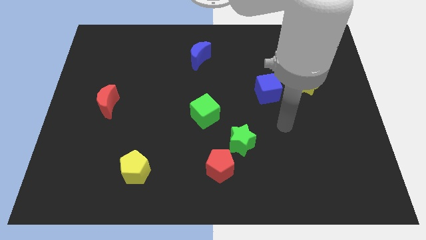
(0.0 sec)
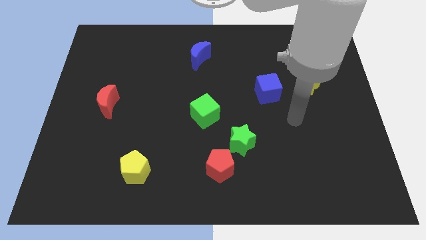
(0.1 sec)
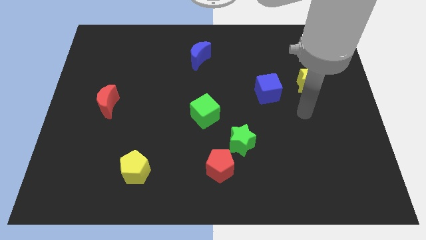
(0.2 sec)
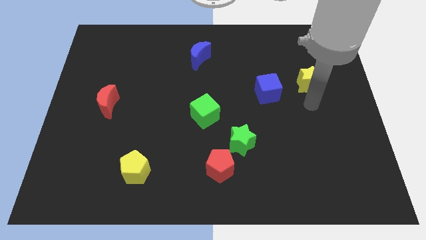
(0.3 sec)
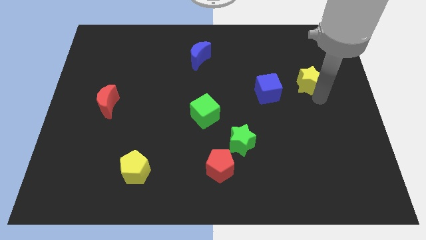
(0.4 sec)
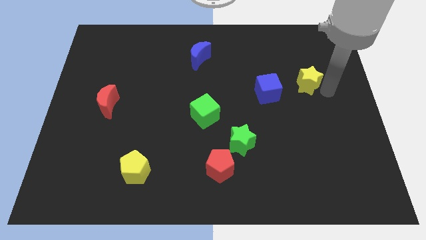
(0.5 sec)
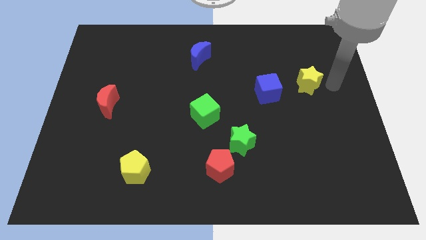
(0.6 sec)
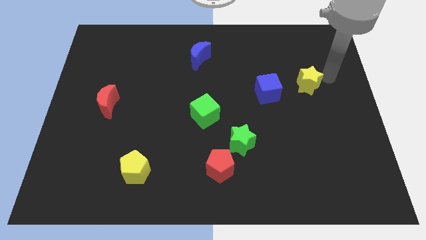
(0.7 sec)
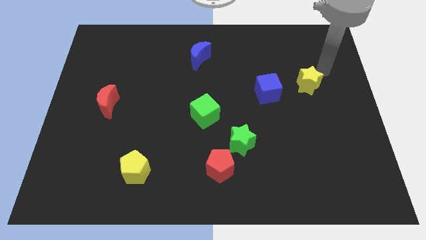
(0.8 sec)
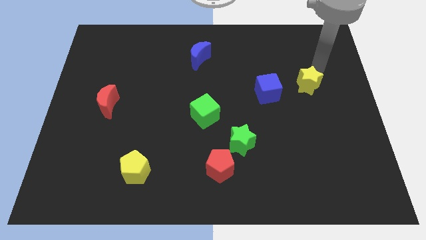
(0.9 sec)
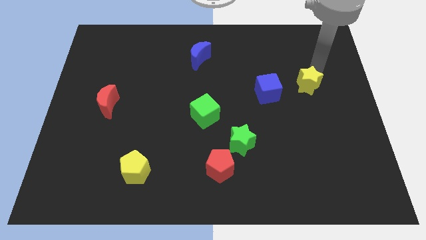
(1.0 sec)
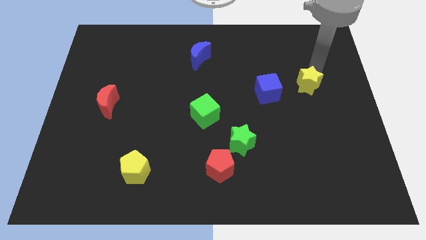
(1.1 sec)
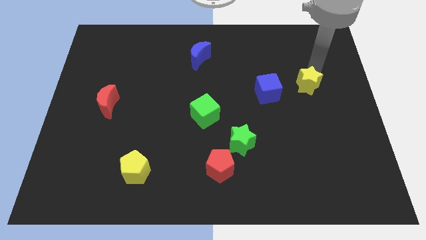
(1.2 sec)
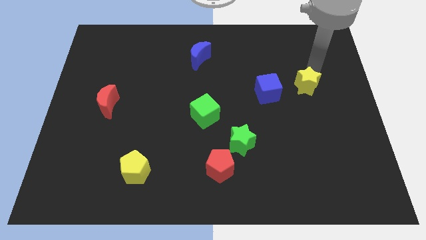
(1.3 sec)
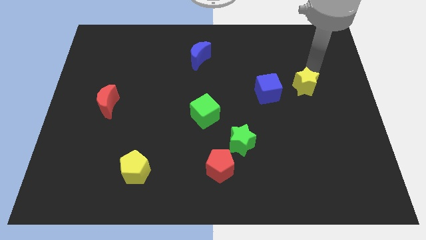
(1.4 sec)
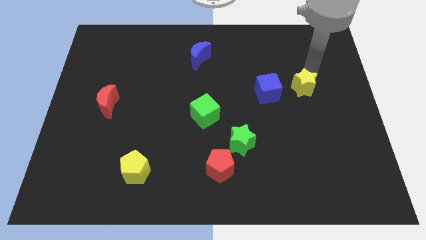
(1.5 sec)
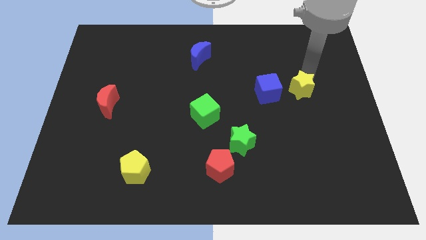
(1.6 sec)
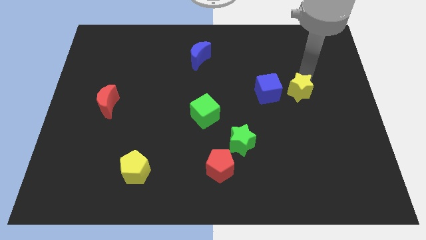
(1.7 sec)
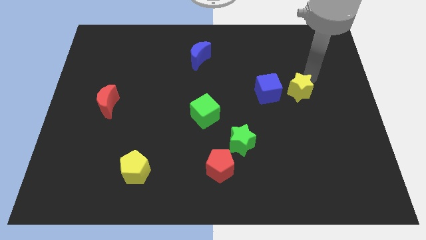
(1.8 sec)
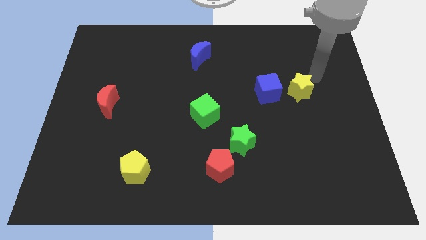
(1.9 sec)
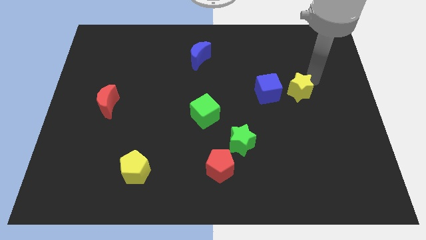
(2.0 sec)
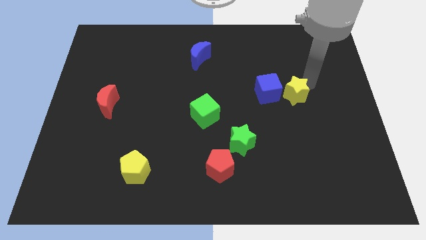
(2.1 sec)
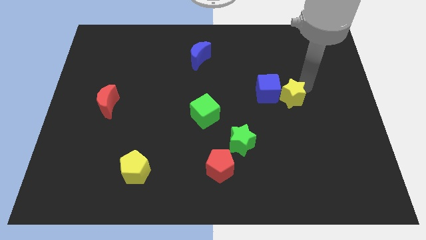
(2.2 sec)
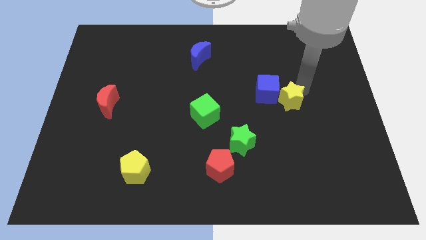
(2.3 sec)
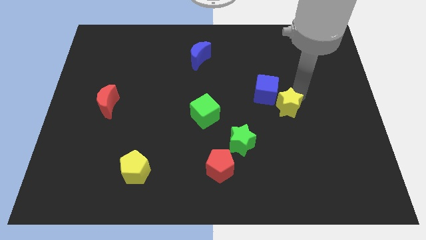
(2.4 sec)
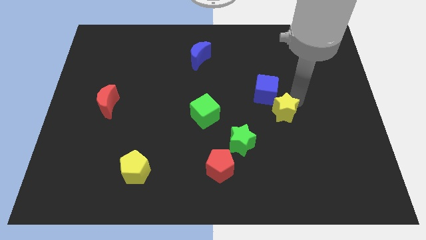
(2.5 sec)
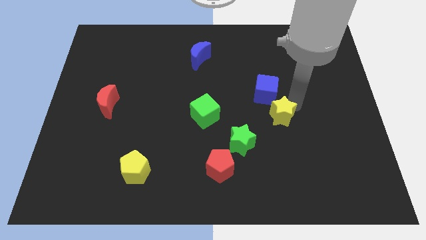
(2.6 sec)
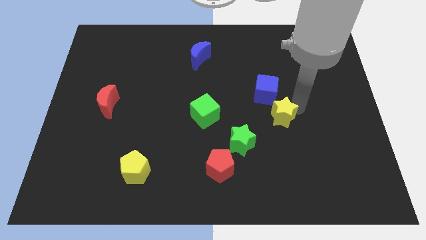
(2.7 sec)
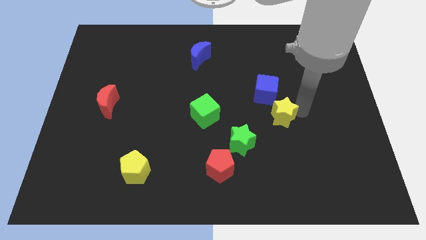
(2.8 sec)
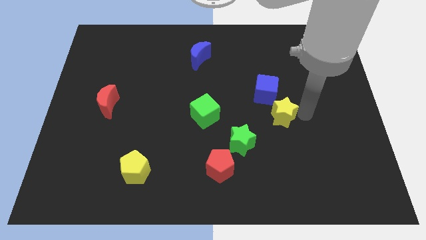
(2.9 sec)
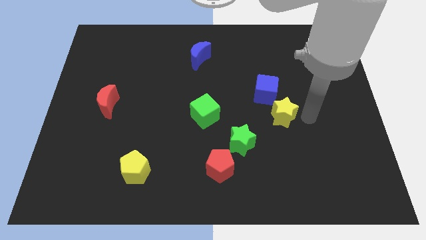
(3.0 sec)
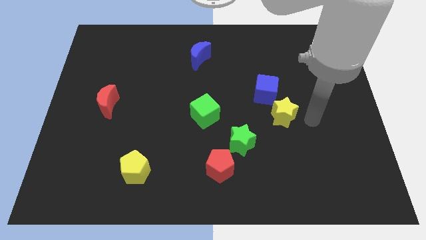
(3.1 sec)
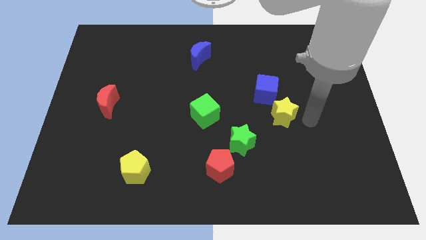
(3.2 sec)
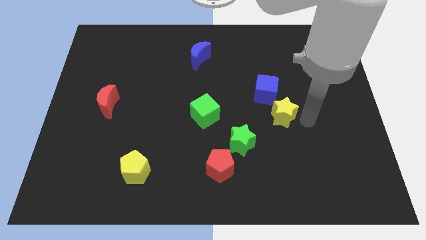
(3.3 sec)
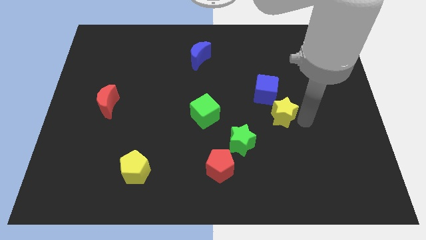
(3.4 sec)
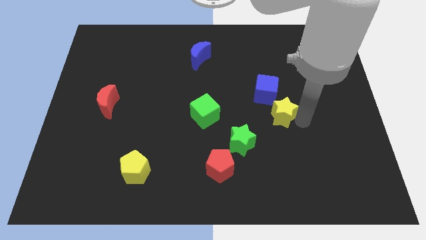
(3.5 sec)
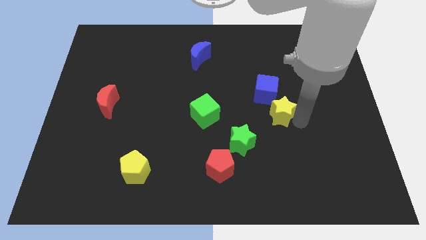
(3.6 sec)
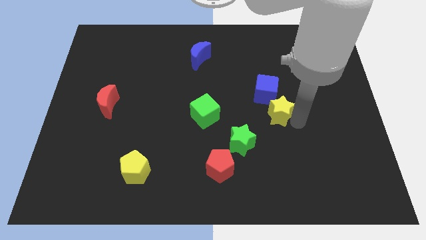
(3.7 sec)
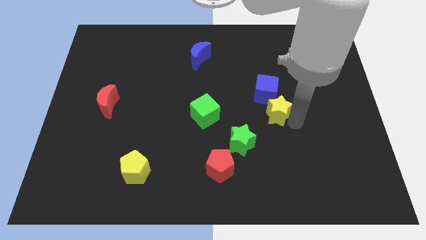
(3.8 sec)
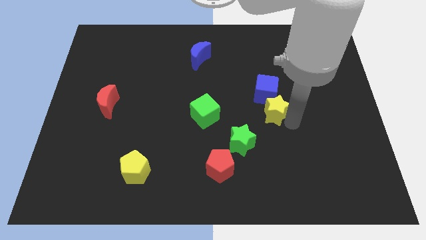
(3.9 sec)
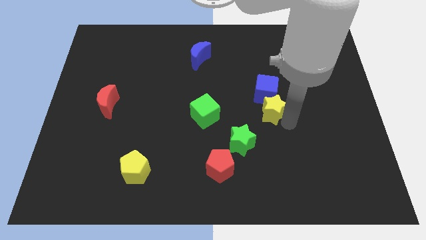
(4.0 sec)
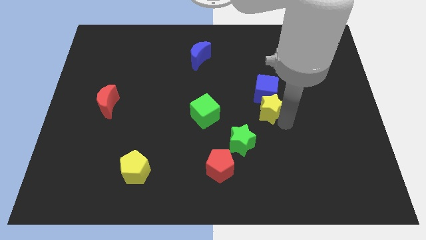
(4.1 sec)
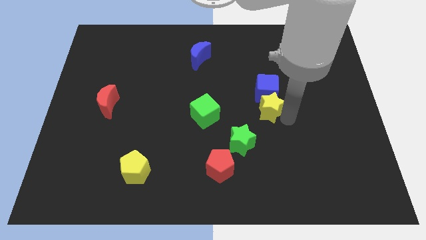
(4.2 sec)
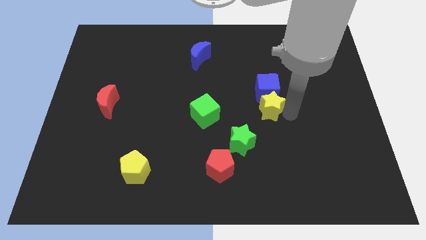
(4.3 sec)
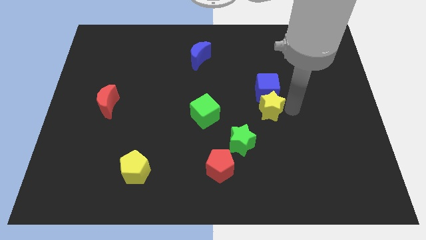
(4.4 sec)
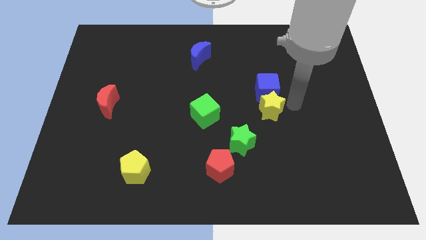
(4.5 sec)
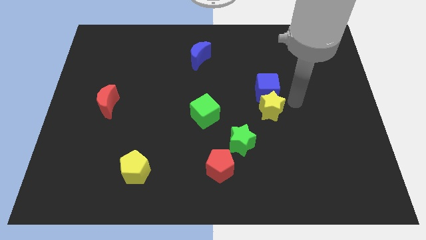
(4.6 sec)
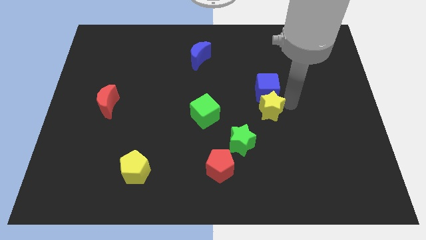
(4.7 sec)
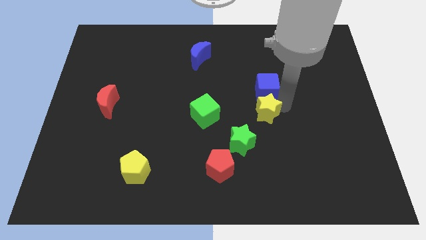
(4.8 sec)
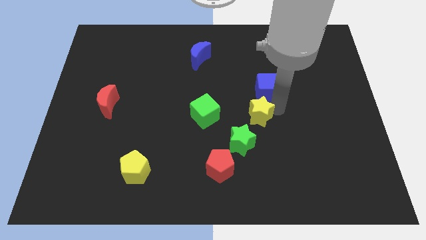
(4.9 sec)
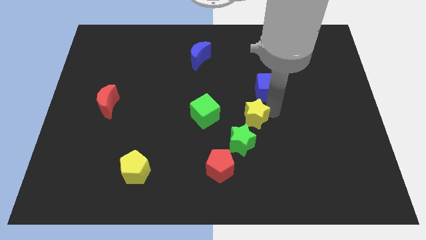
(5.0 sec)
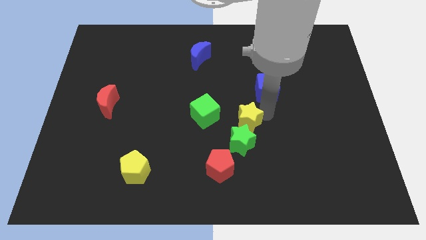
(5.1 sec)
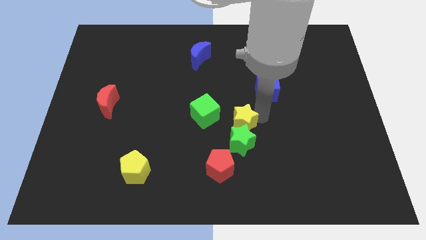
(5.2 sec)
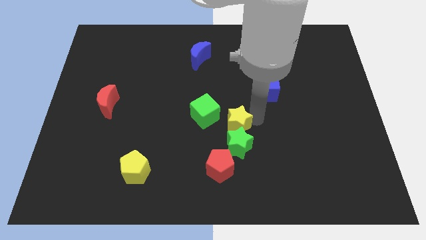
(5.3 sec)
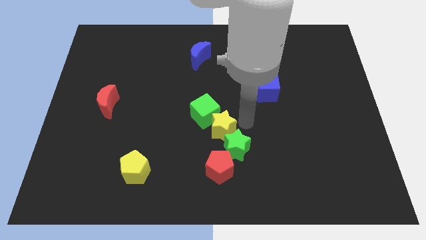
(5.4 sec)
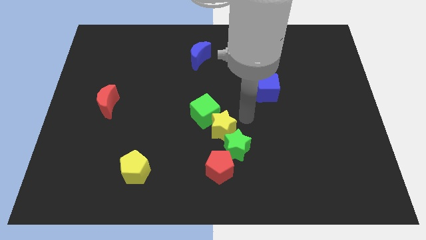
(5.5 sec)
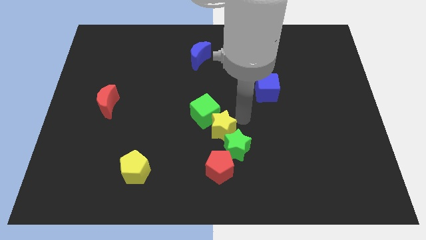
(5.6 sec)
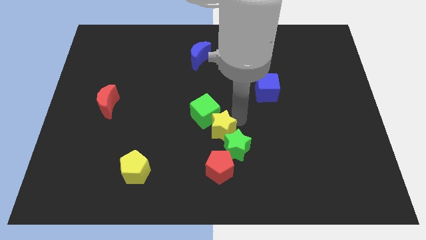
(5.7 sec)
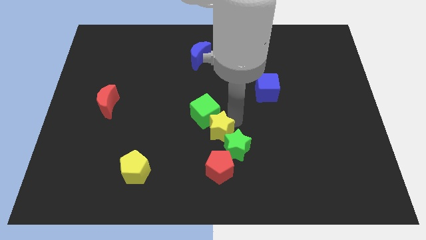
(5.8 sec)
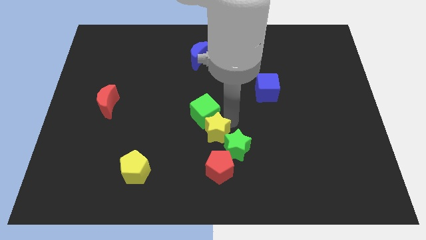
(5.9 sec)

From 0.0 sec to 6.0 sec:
move the yellow star just left of the green star

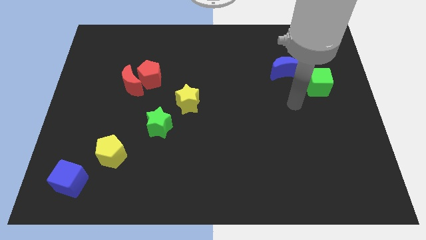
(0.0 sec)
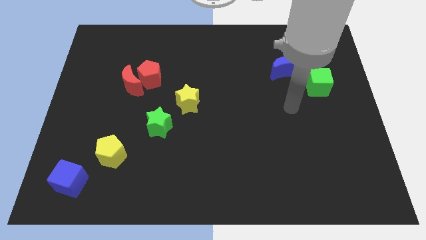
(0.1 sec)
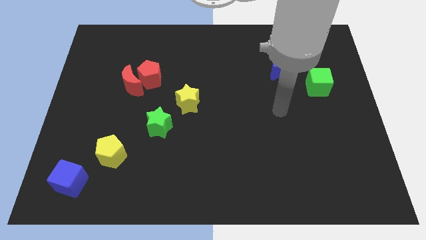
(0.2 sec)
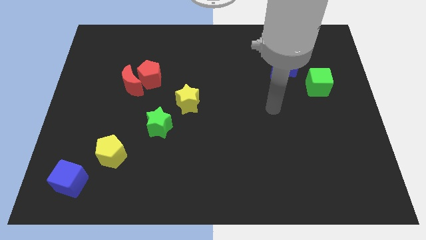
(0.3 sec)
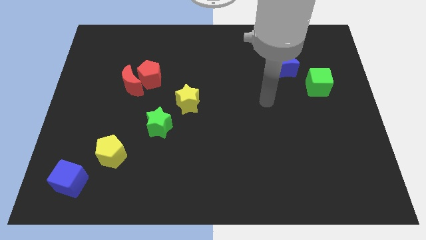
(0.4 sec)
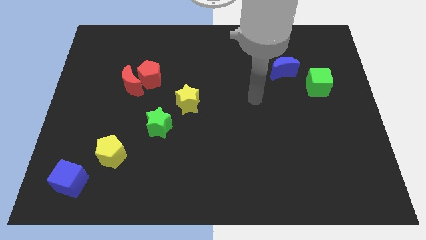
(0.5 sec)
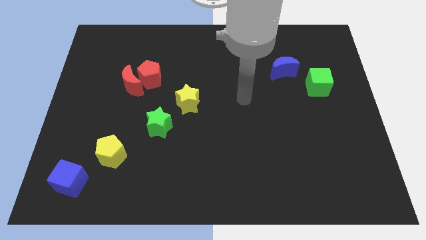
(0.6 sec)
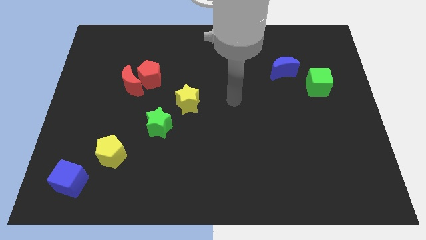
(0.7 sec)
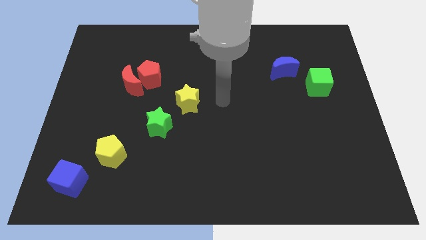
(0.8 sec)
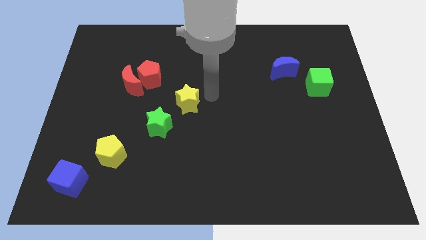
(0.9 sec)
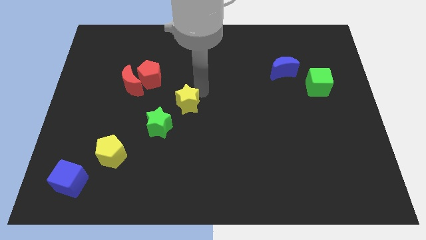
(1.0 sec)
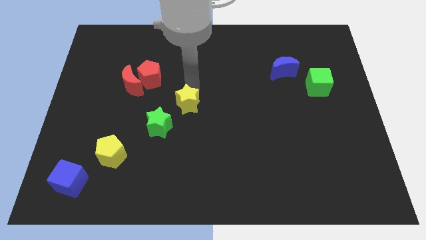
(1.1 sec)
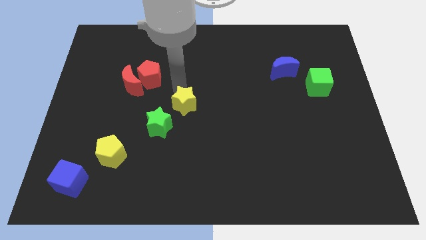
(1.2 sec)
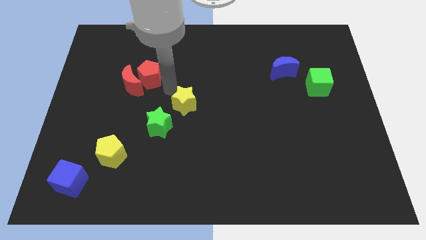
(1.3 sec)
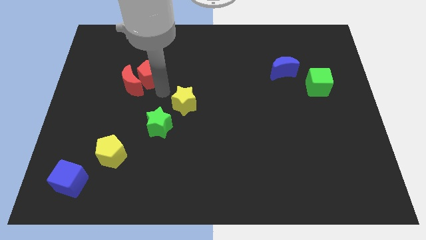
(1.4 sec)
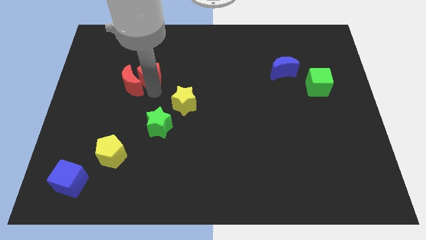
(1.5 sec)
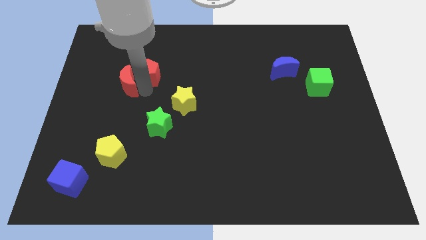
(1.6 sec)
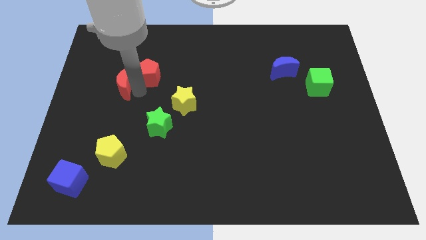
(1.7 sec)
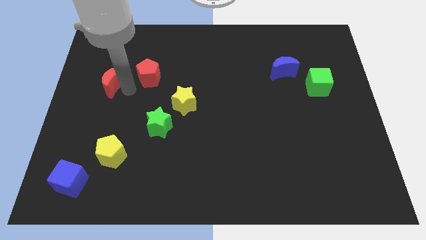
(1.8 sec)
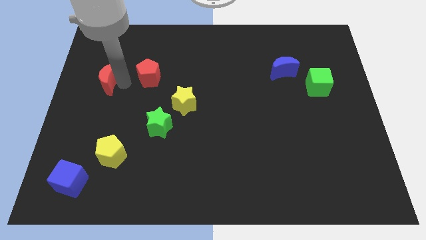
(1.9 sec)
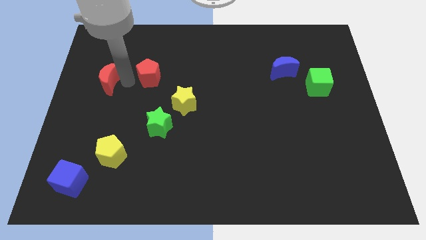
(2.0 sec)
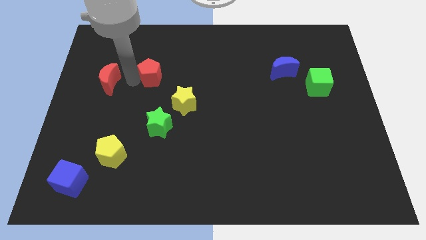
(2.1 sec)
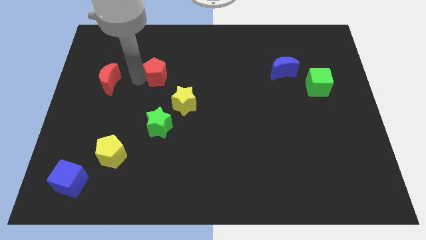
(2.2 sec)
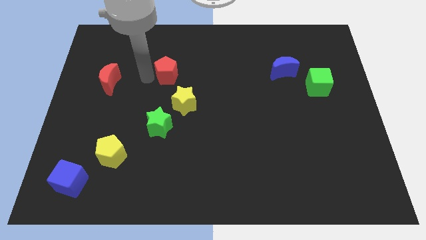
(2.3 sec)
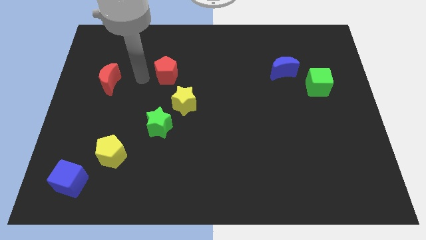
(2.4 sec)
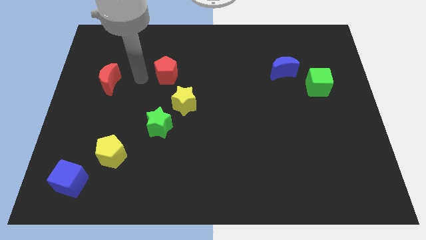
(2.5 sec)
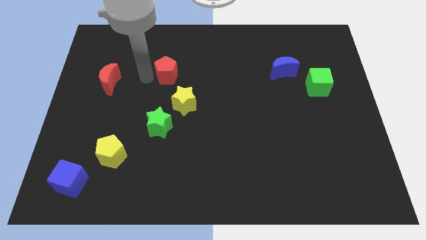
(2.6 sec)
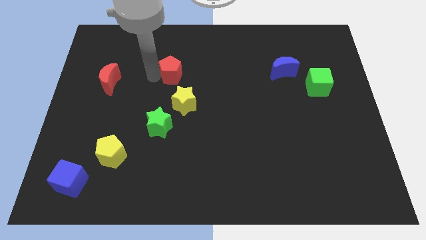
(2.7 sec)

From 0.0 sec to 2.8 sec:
slide the red pentagon above the yellow star
